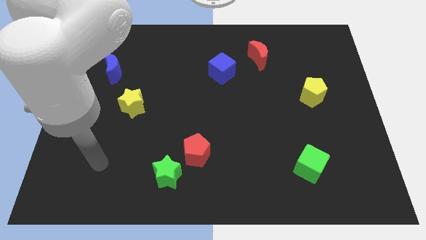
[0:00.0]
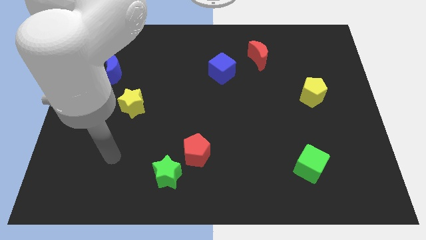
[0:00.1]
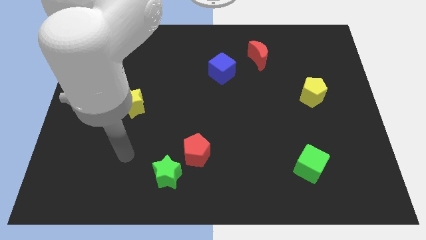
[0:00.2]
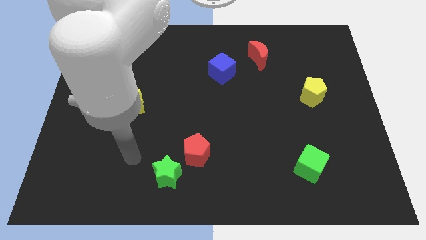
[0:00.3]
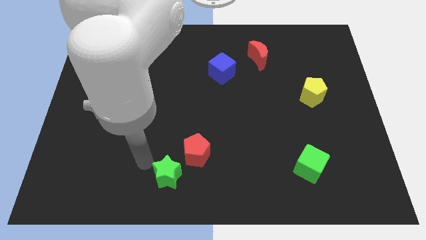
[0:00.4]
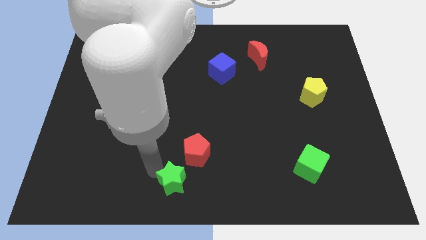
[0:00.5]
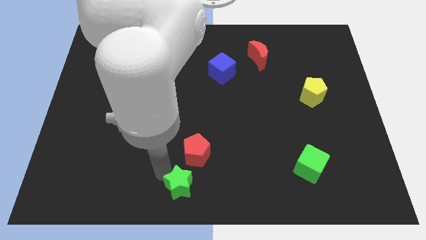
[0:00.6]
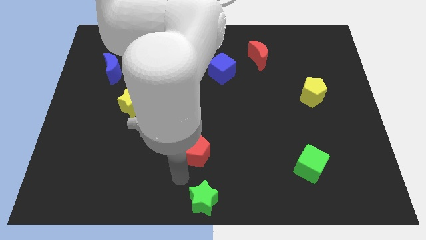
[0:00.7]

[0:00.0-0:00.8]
separate the red pentagon from the green star

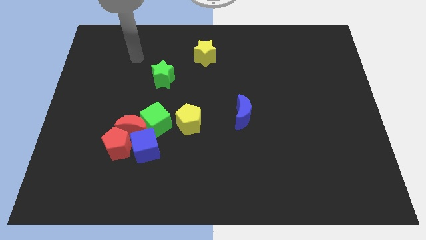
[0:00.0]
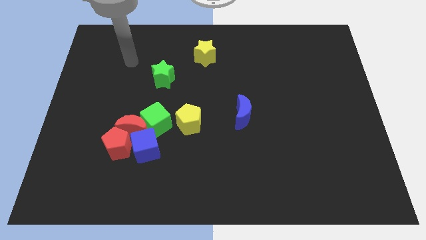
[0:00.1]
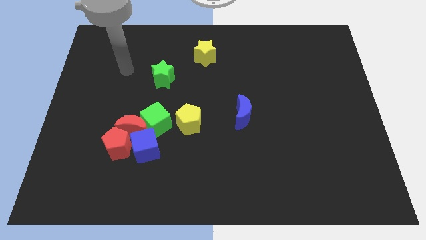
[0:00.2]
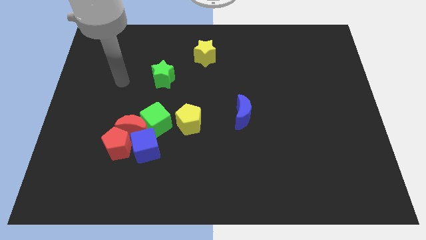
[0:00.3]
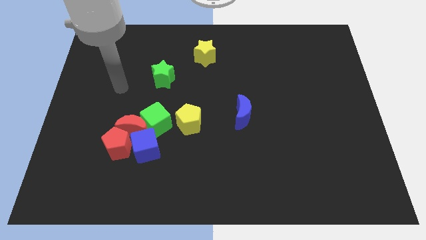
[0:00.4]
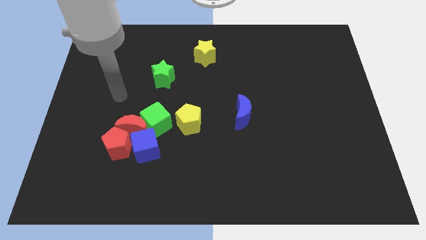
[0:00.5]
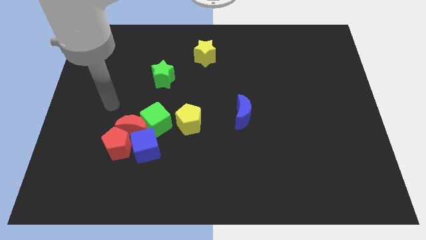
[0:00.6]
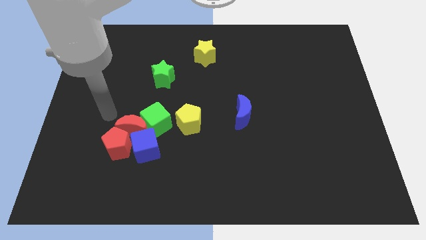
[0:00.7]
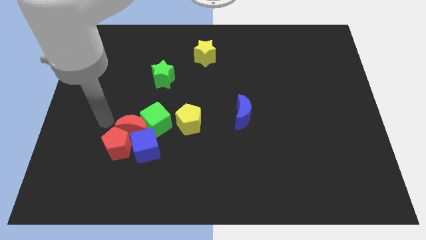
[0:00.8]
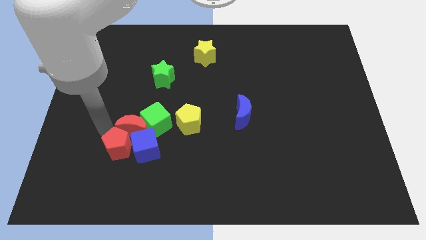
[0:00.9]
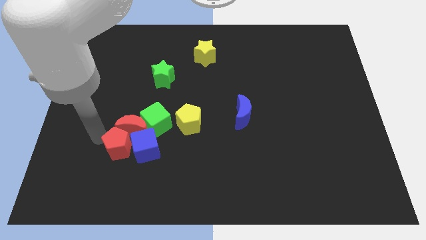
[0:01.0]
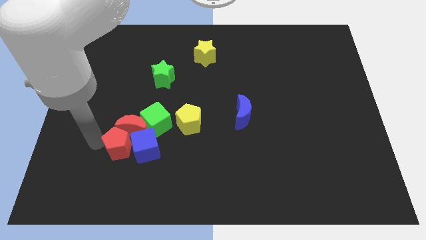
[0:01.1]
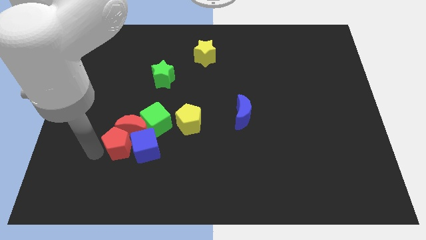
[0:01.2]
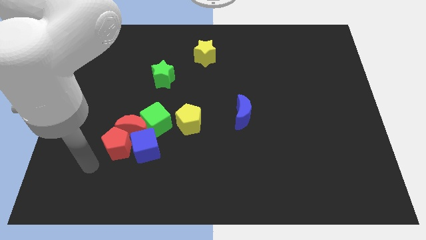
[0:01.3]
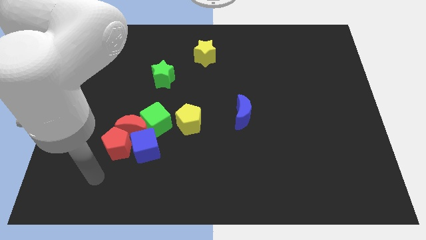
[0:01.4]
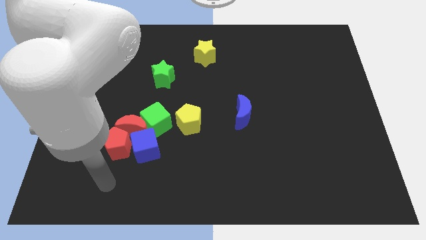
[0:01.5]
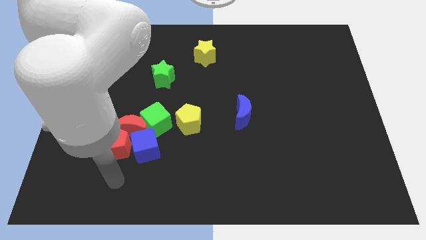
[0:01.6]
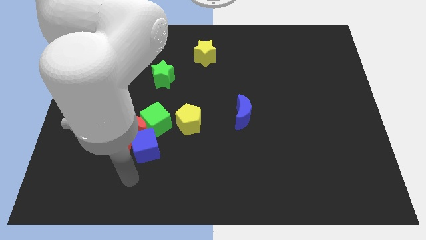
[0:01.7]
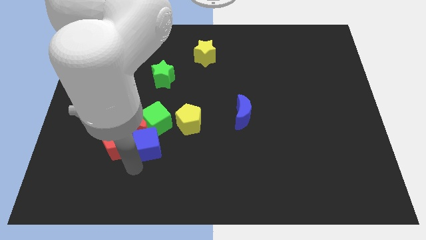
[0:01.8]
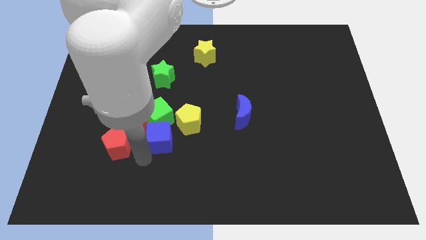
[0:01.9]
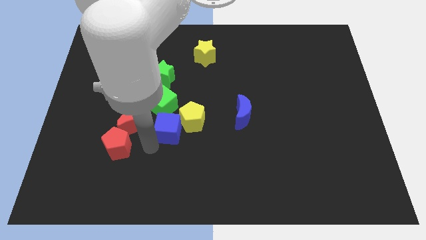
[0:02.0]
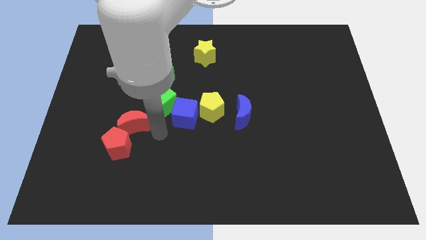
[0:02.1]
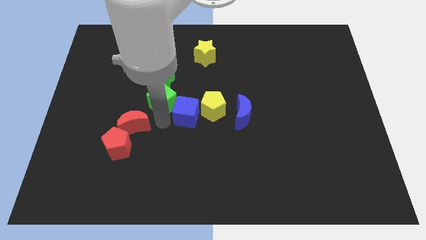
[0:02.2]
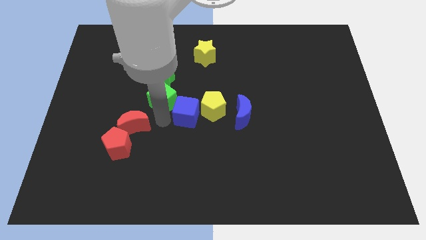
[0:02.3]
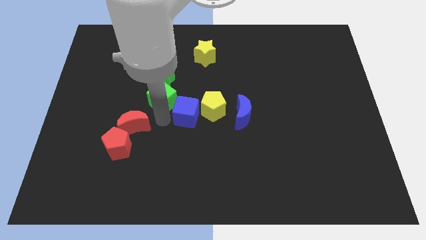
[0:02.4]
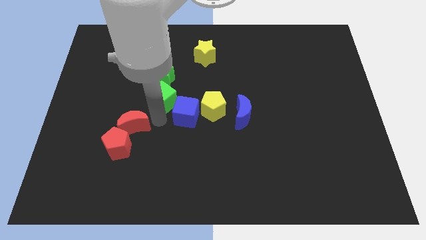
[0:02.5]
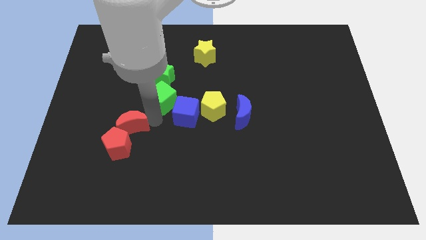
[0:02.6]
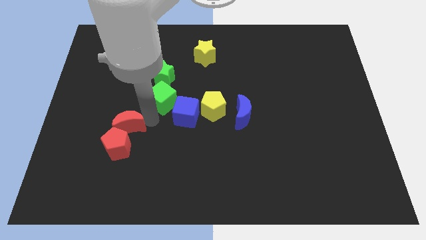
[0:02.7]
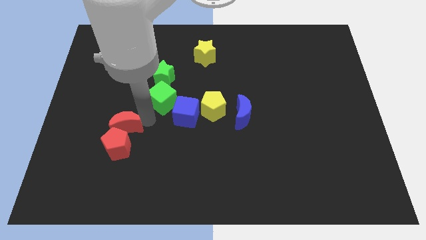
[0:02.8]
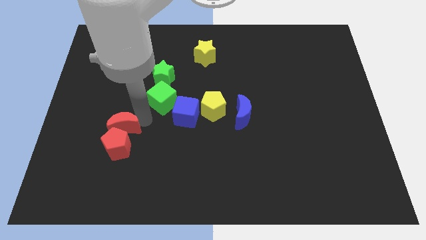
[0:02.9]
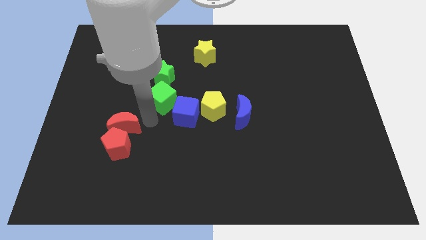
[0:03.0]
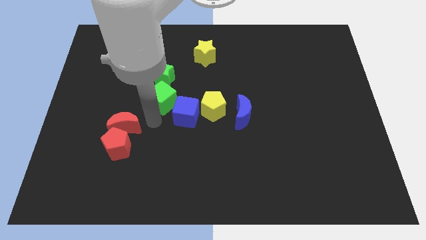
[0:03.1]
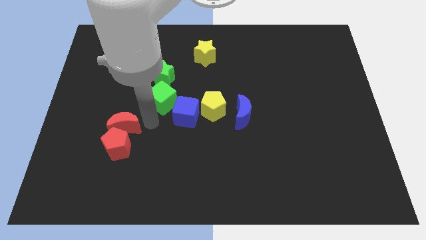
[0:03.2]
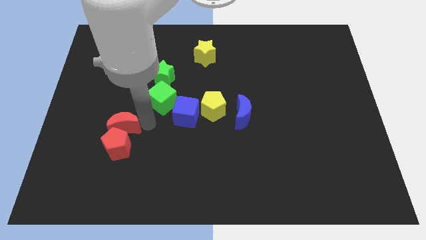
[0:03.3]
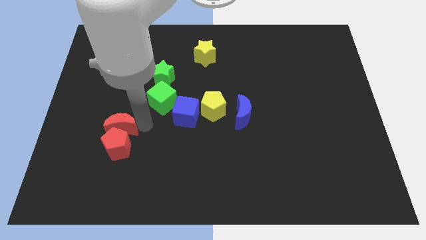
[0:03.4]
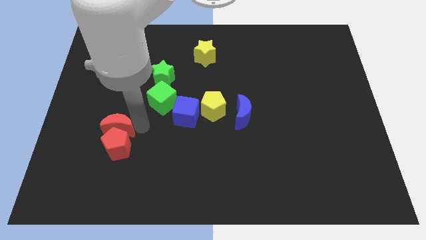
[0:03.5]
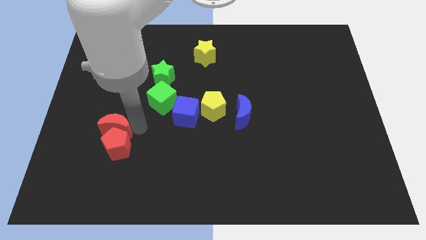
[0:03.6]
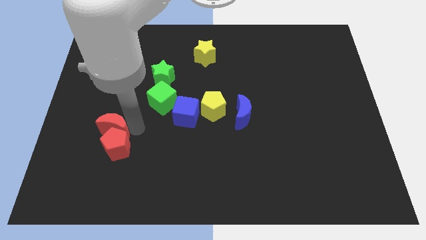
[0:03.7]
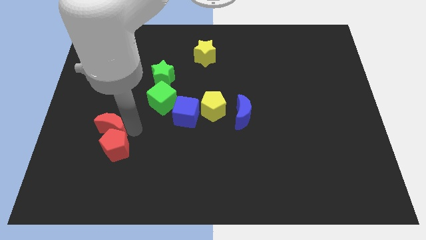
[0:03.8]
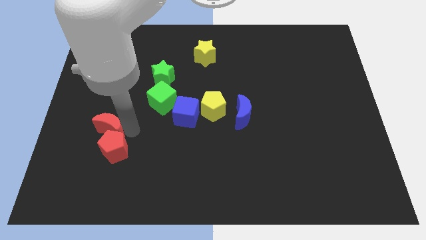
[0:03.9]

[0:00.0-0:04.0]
pull the red moon apart from the clump

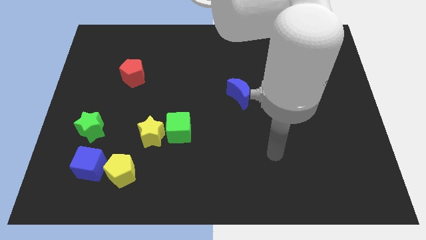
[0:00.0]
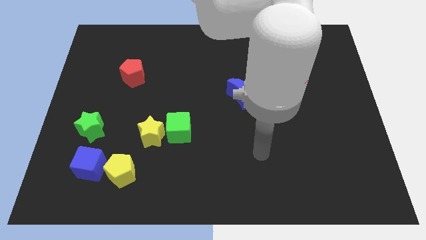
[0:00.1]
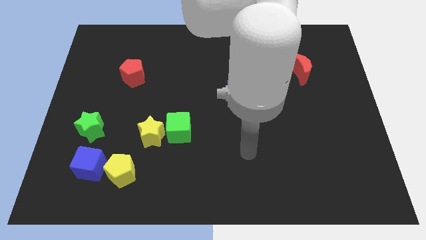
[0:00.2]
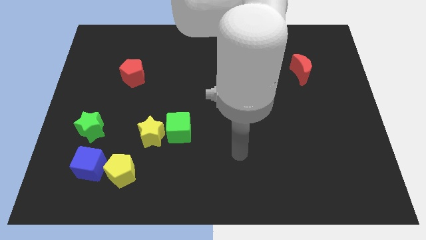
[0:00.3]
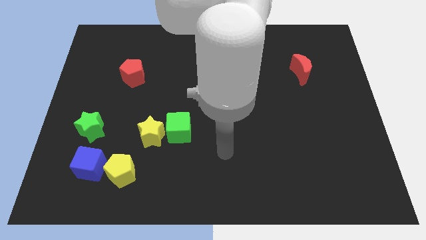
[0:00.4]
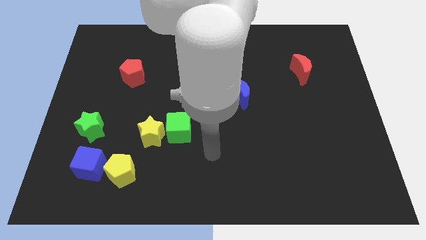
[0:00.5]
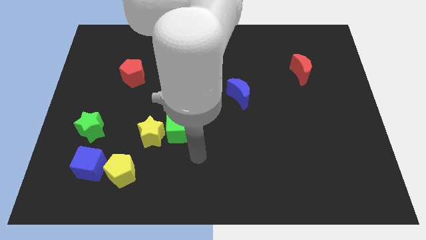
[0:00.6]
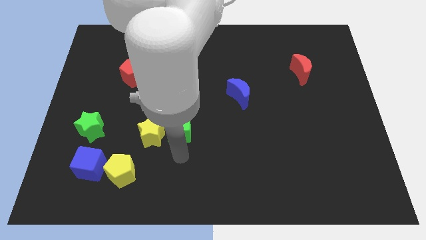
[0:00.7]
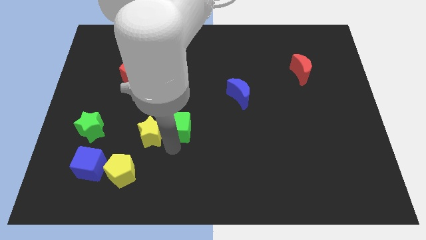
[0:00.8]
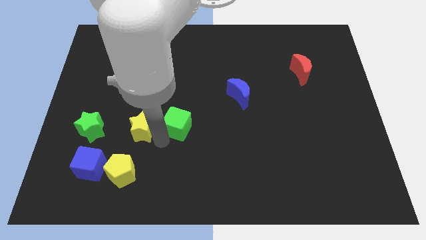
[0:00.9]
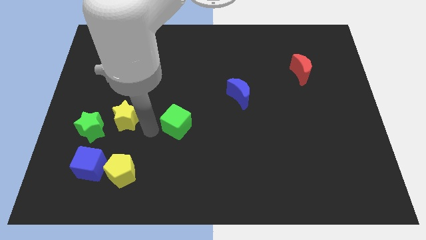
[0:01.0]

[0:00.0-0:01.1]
separate the green cube from the yellow star

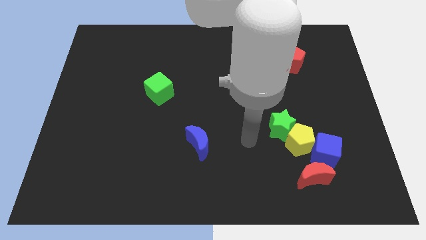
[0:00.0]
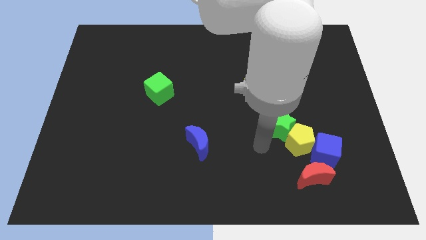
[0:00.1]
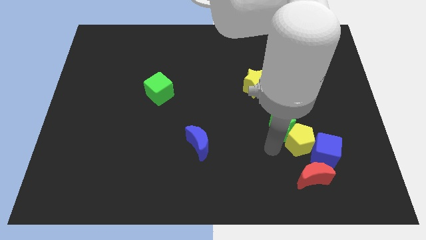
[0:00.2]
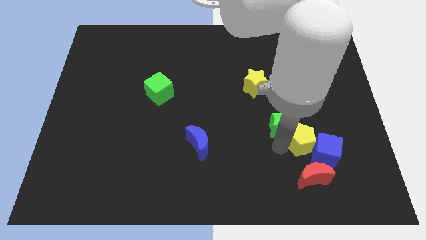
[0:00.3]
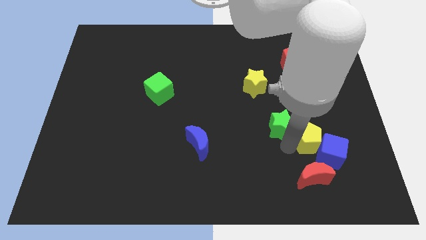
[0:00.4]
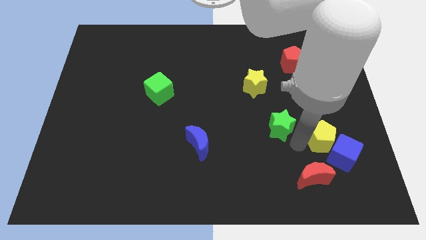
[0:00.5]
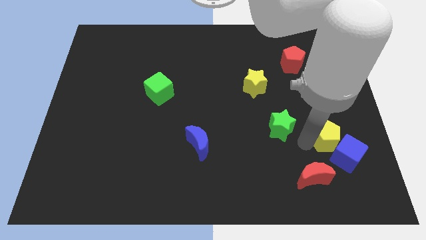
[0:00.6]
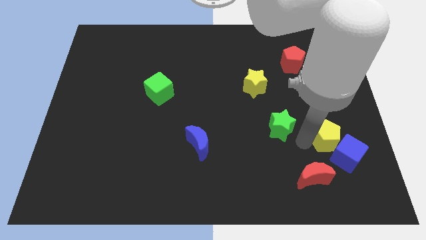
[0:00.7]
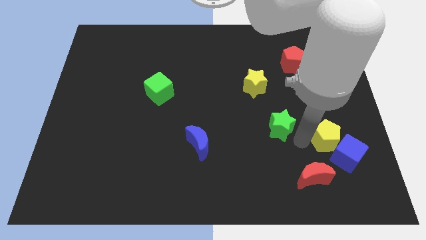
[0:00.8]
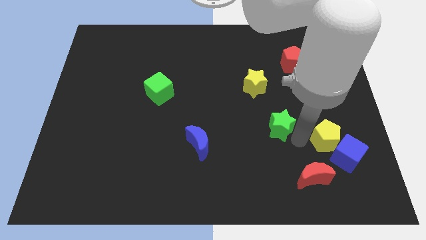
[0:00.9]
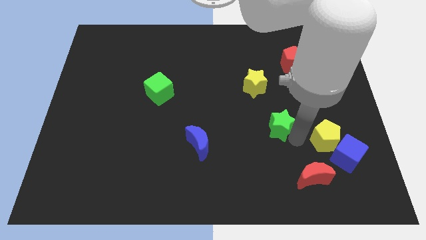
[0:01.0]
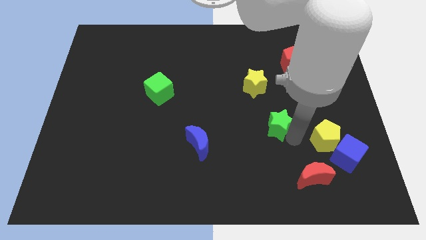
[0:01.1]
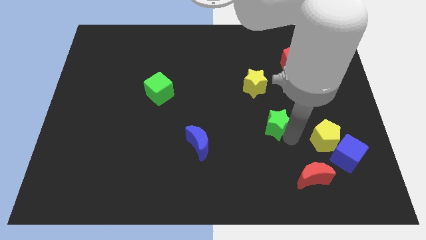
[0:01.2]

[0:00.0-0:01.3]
separate the green star from the yellow pentagon

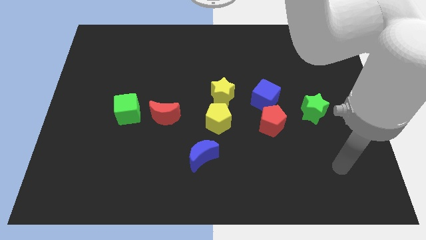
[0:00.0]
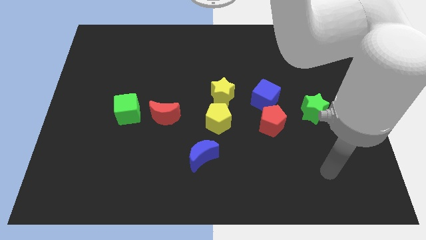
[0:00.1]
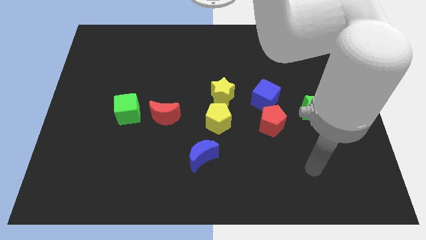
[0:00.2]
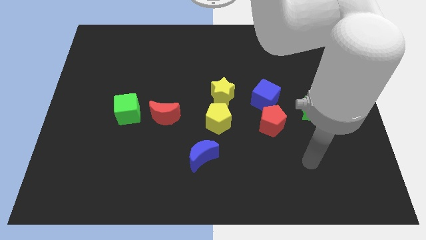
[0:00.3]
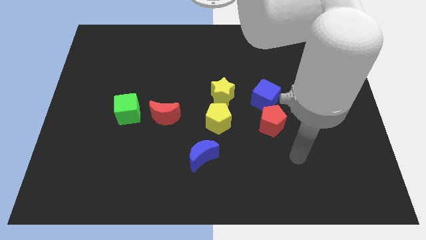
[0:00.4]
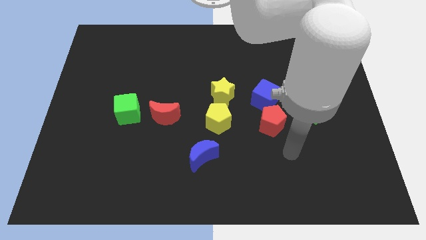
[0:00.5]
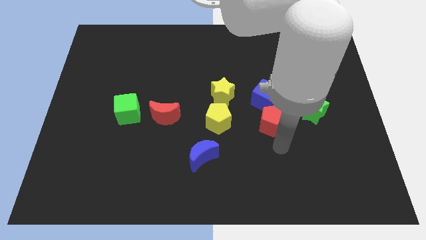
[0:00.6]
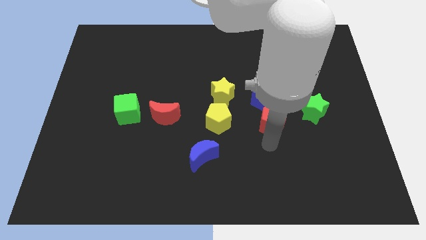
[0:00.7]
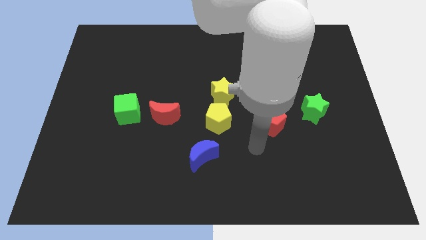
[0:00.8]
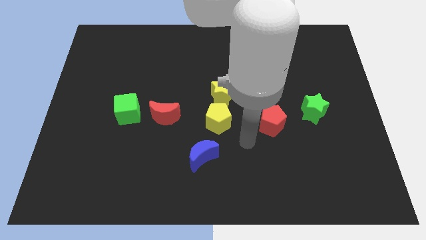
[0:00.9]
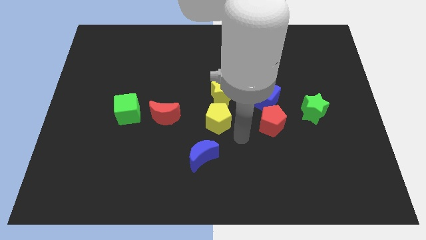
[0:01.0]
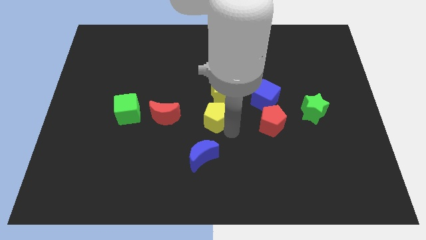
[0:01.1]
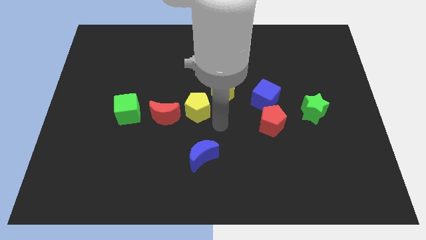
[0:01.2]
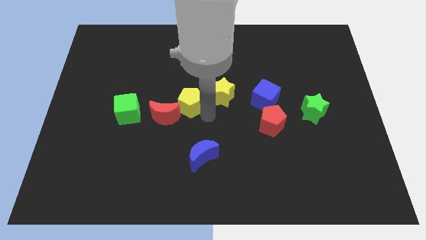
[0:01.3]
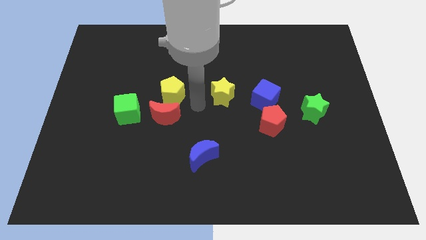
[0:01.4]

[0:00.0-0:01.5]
move the yellow star away from the yellow pentagon

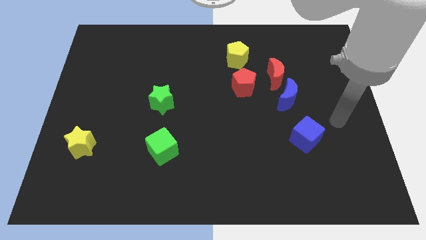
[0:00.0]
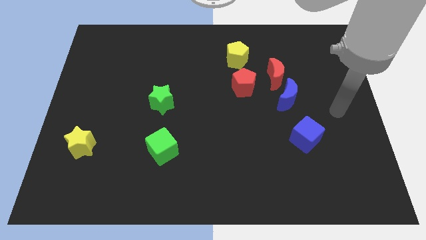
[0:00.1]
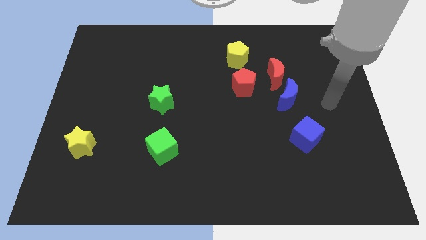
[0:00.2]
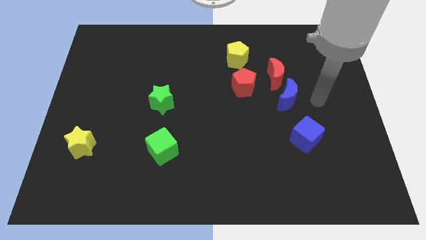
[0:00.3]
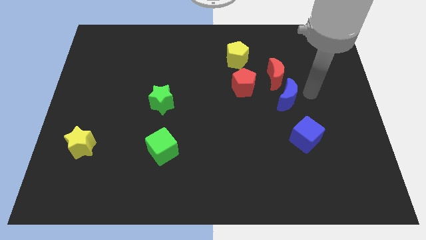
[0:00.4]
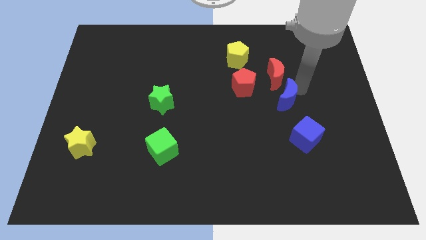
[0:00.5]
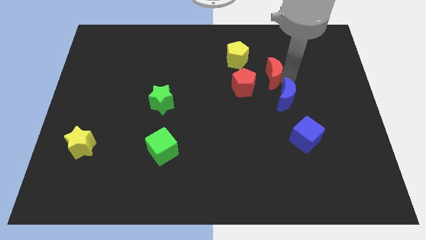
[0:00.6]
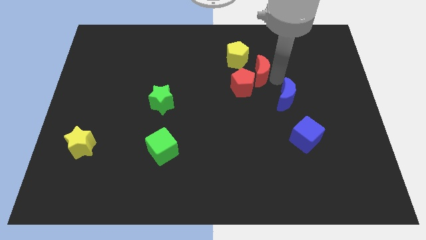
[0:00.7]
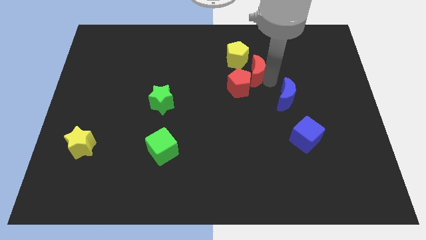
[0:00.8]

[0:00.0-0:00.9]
move the blue moon away from the red moon
